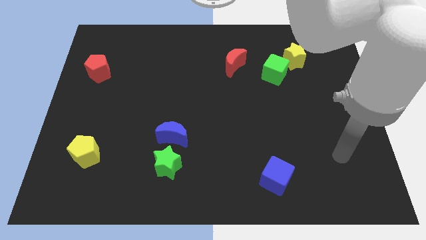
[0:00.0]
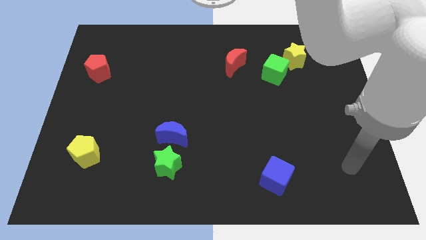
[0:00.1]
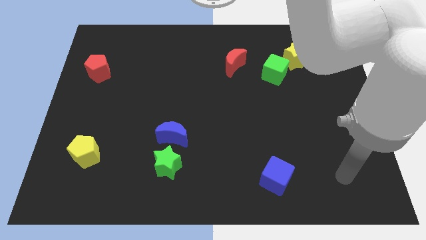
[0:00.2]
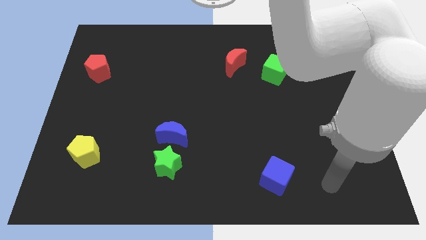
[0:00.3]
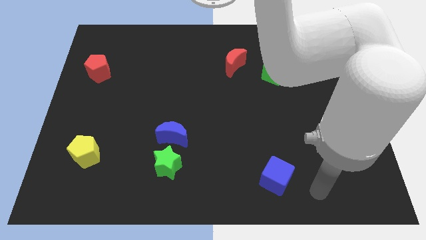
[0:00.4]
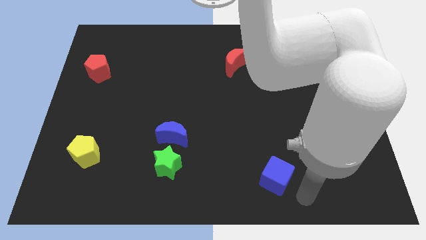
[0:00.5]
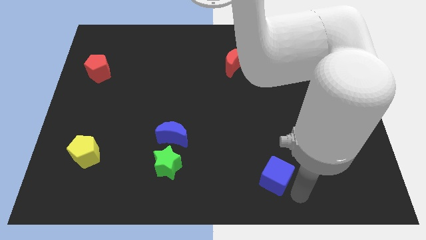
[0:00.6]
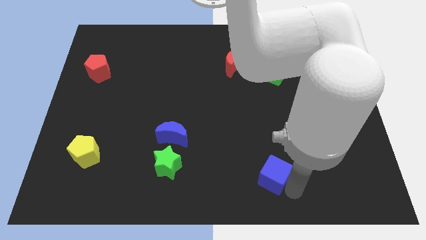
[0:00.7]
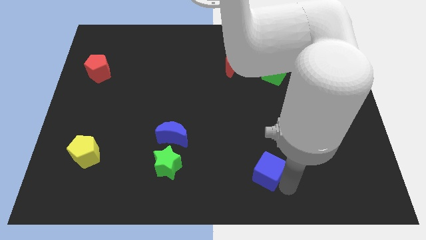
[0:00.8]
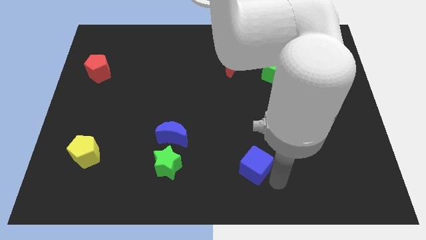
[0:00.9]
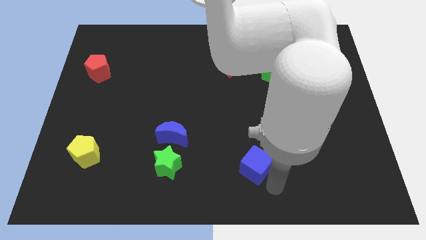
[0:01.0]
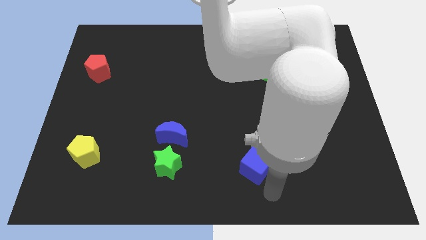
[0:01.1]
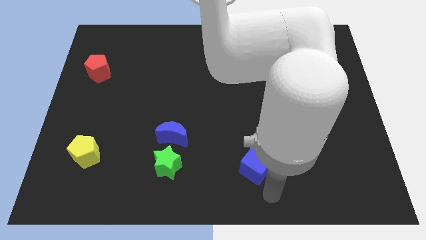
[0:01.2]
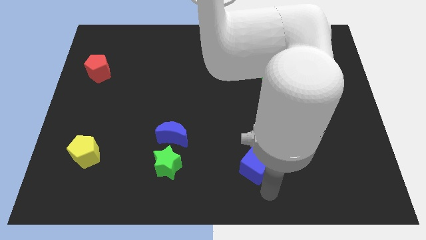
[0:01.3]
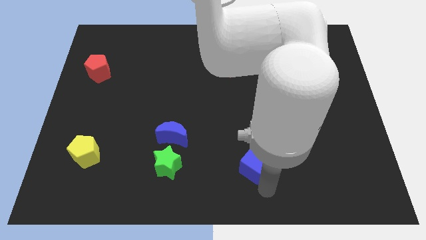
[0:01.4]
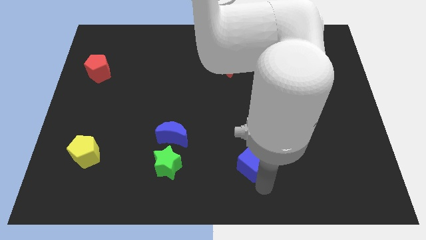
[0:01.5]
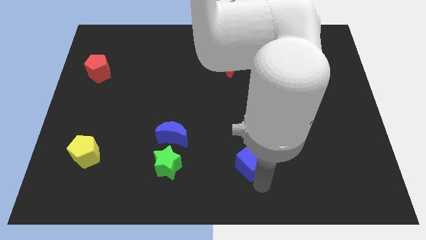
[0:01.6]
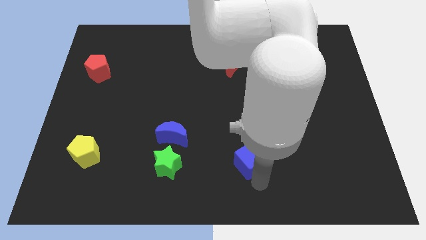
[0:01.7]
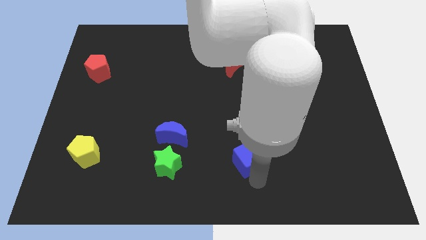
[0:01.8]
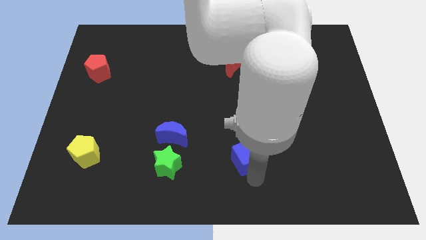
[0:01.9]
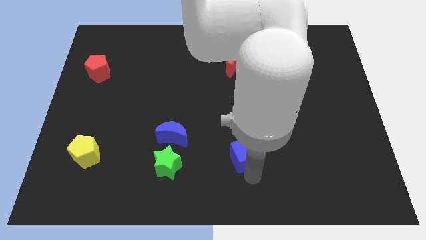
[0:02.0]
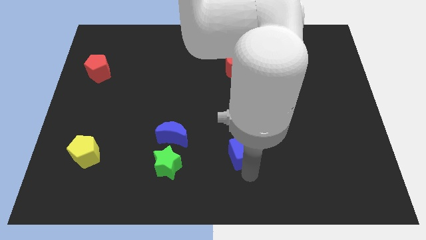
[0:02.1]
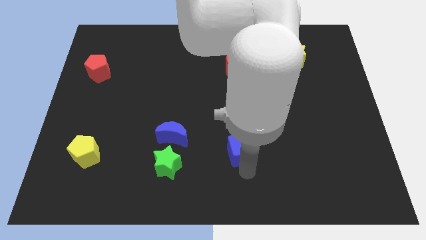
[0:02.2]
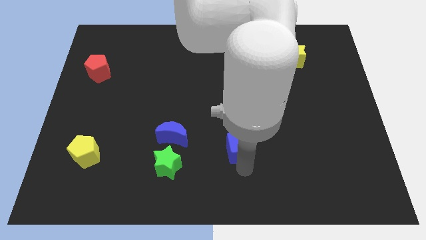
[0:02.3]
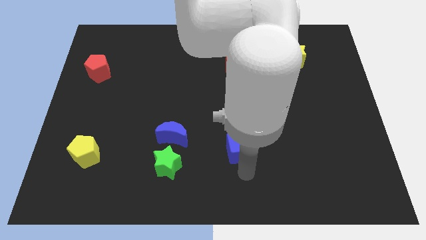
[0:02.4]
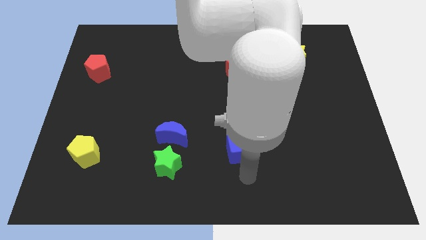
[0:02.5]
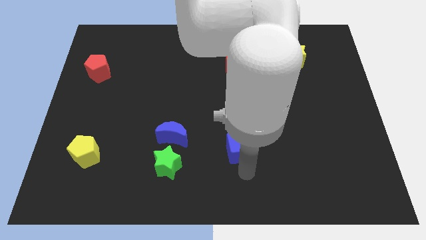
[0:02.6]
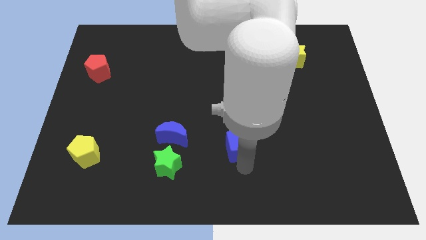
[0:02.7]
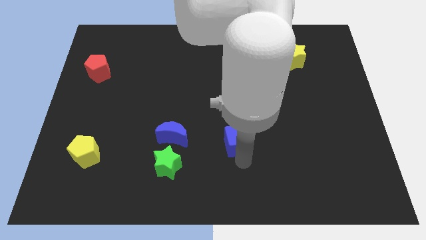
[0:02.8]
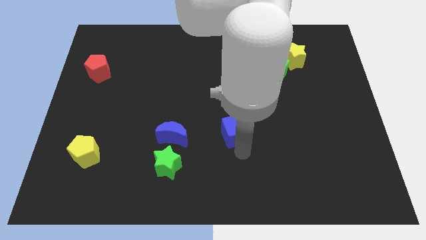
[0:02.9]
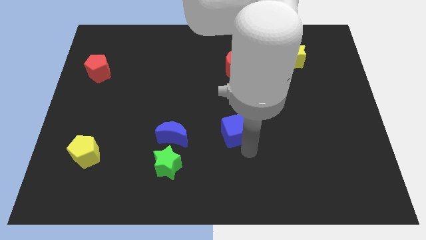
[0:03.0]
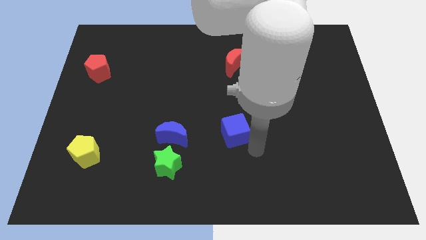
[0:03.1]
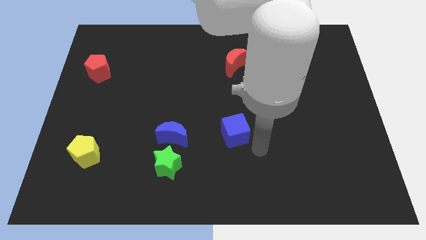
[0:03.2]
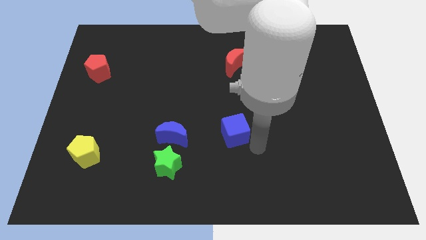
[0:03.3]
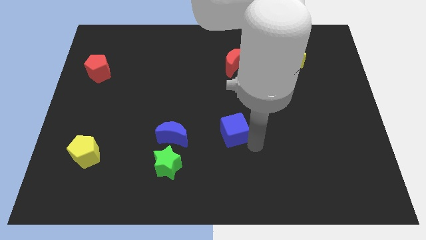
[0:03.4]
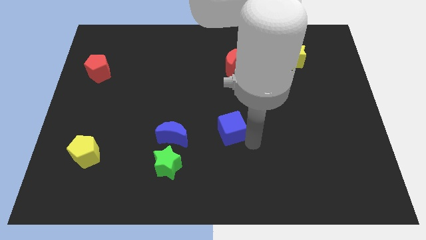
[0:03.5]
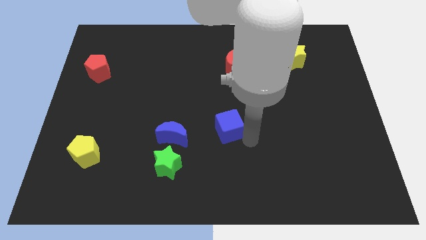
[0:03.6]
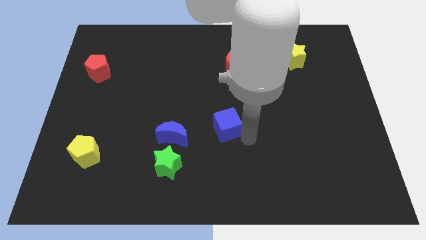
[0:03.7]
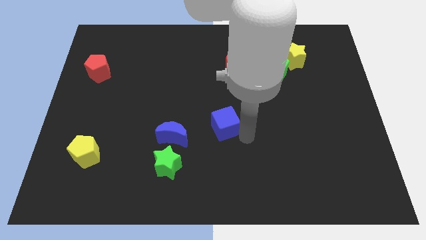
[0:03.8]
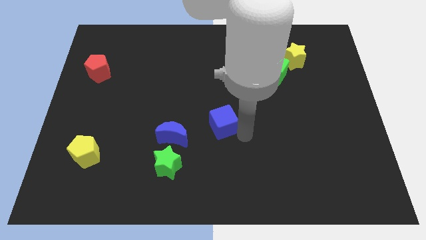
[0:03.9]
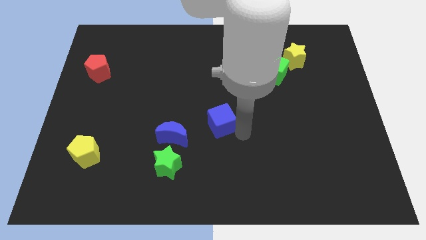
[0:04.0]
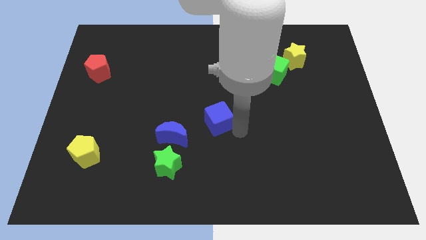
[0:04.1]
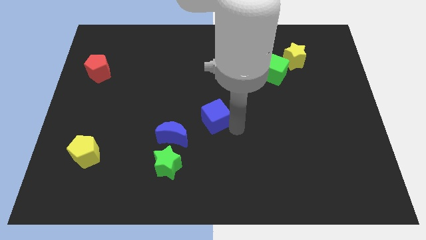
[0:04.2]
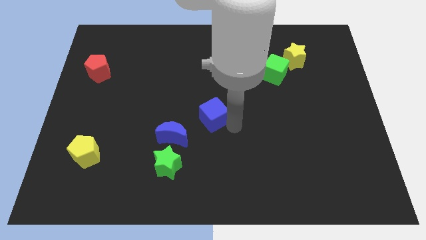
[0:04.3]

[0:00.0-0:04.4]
push the blue cube upwards and left diagonally

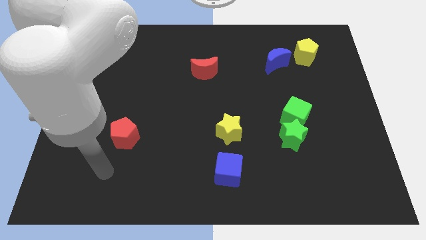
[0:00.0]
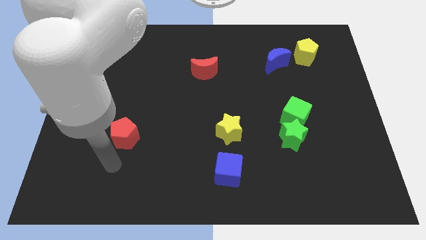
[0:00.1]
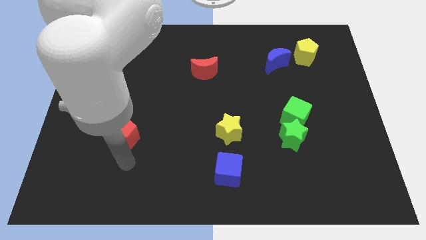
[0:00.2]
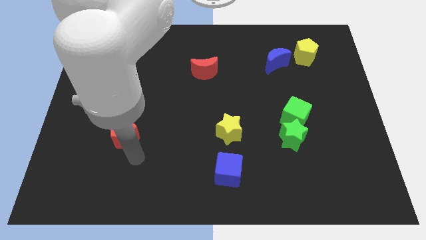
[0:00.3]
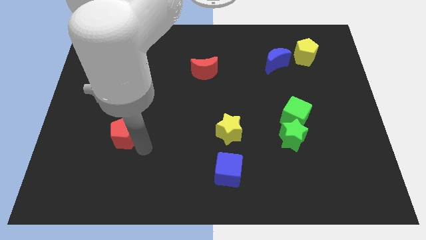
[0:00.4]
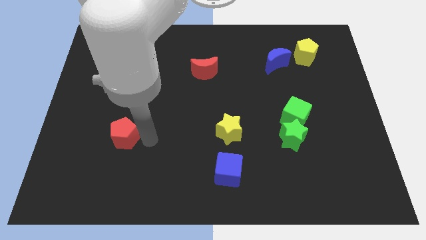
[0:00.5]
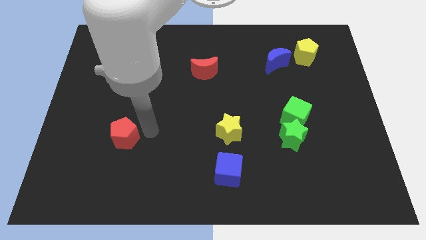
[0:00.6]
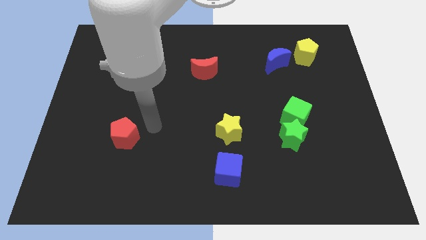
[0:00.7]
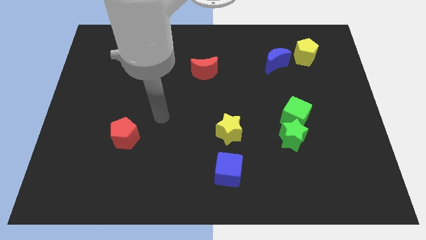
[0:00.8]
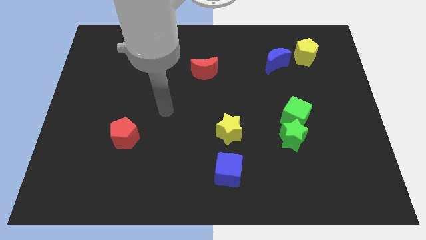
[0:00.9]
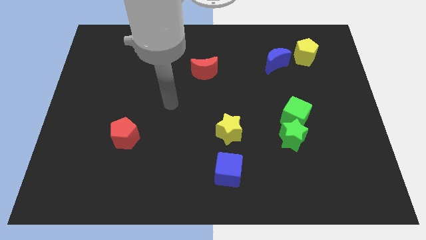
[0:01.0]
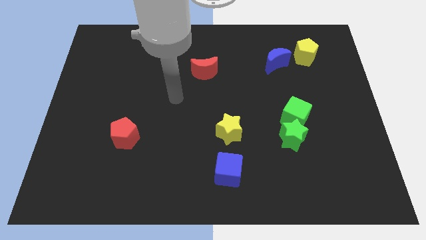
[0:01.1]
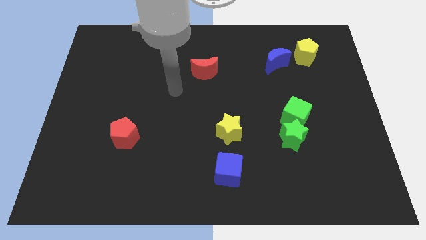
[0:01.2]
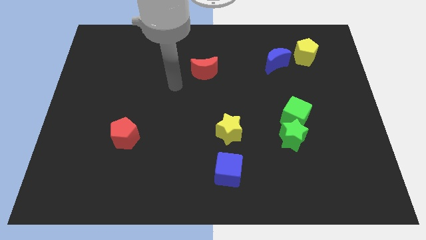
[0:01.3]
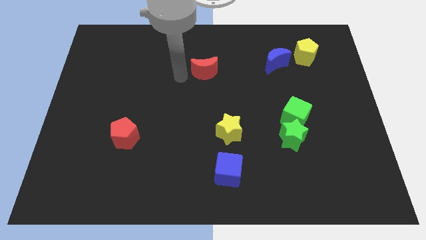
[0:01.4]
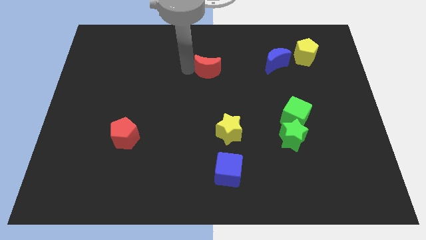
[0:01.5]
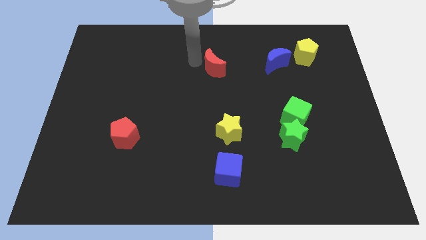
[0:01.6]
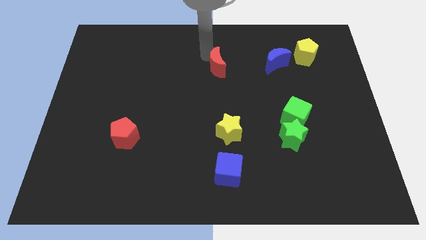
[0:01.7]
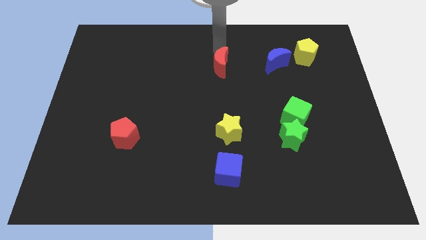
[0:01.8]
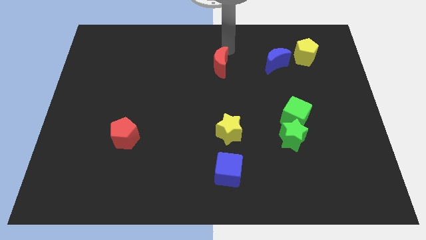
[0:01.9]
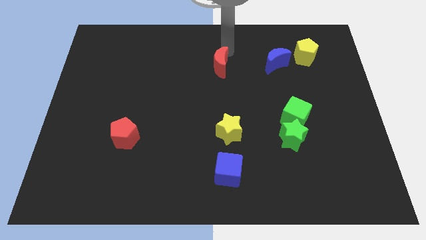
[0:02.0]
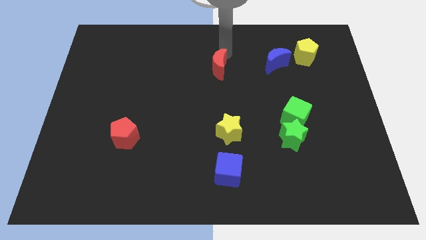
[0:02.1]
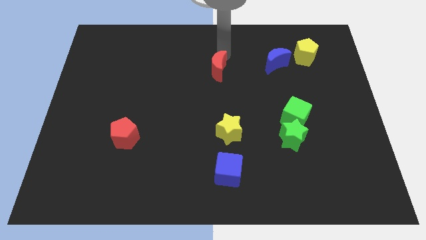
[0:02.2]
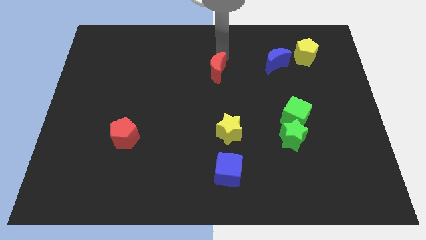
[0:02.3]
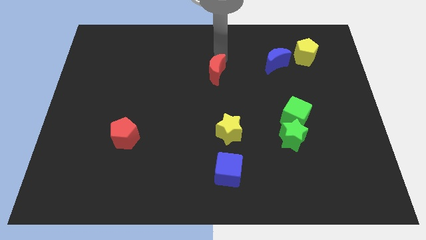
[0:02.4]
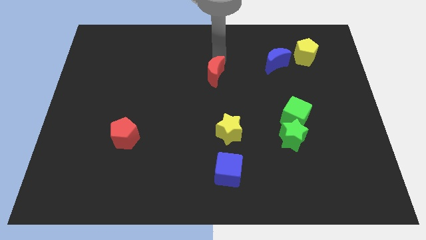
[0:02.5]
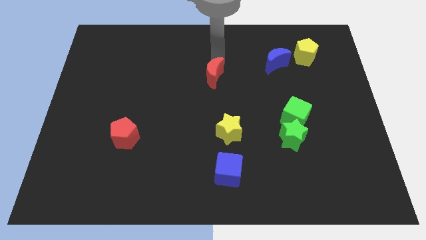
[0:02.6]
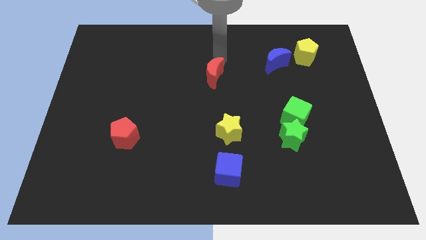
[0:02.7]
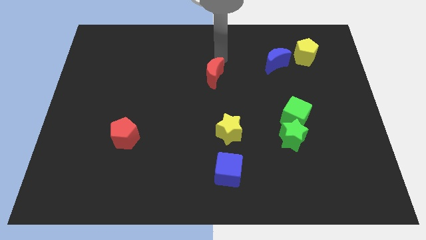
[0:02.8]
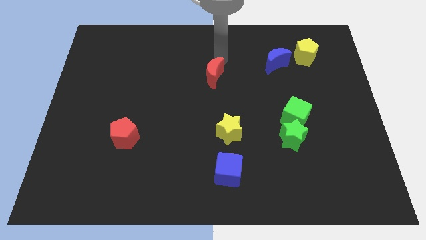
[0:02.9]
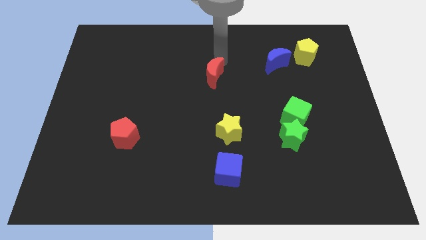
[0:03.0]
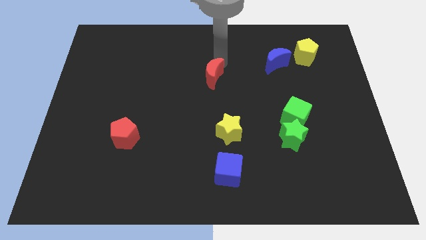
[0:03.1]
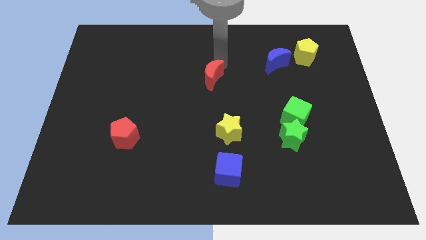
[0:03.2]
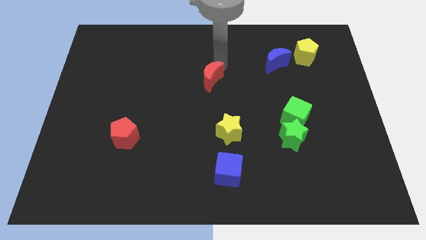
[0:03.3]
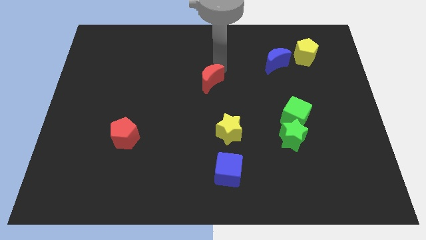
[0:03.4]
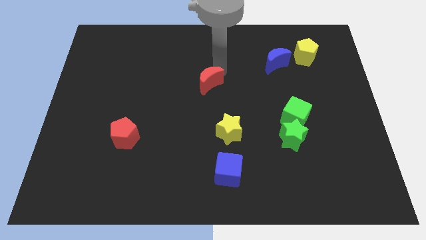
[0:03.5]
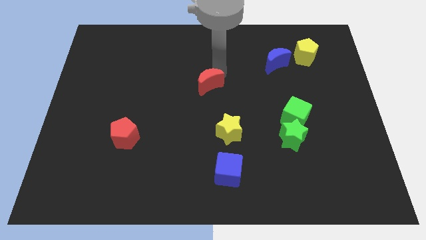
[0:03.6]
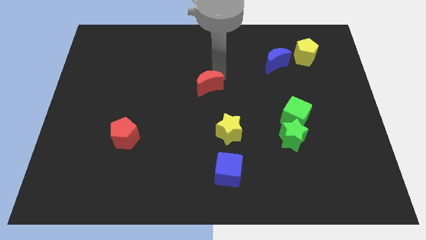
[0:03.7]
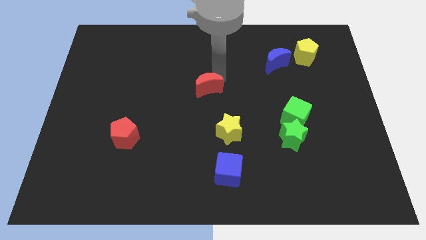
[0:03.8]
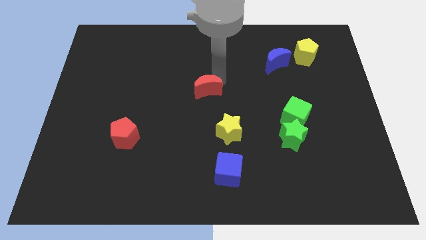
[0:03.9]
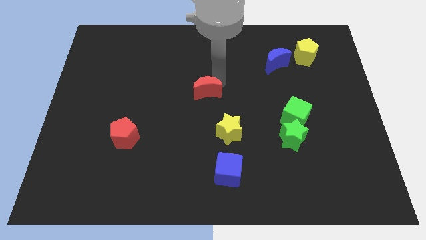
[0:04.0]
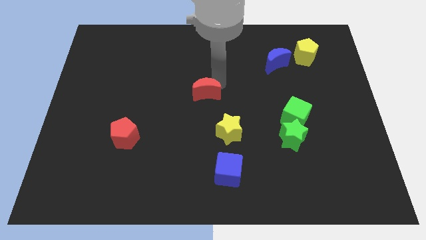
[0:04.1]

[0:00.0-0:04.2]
slightly push the red moon downwards
